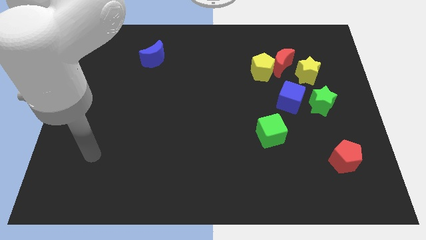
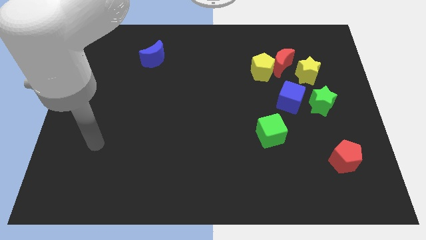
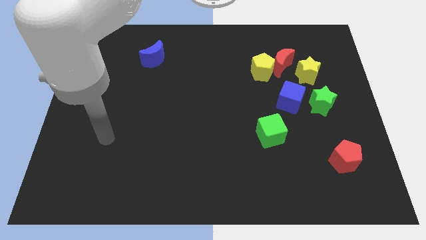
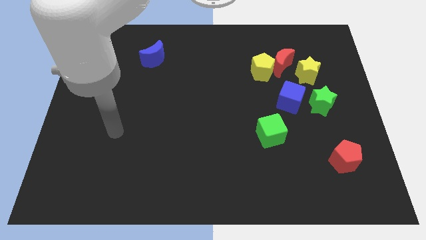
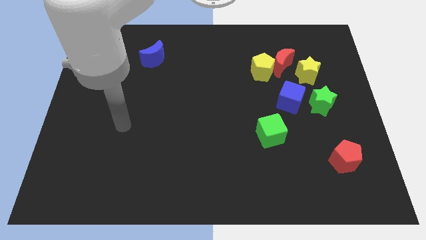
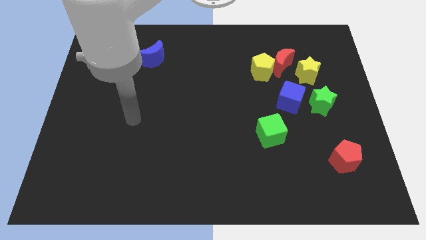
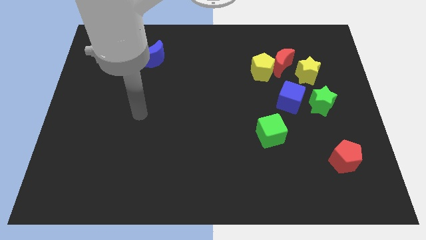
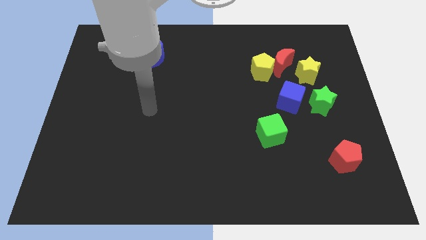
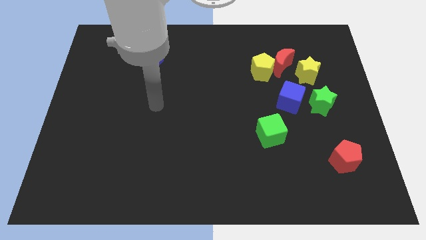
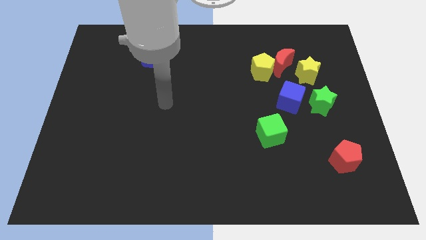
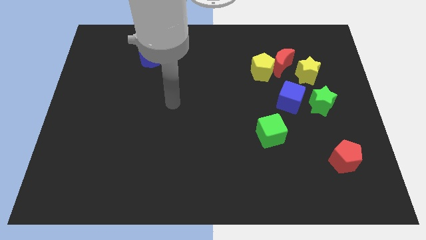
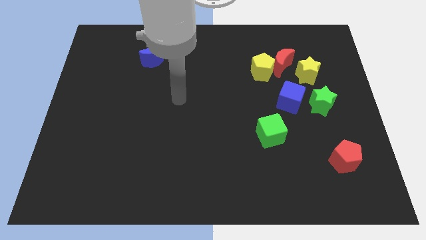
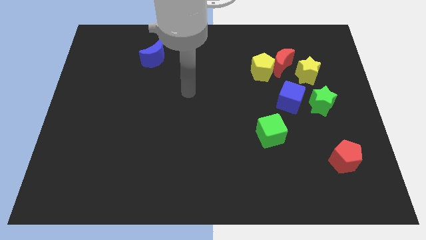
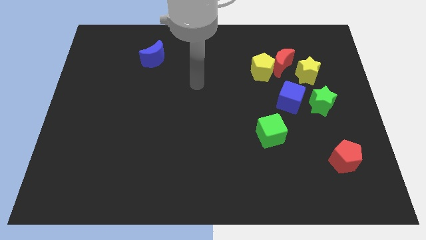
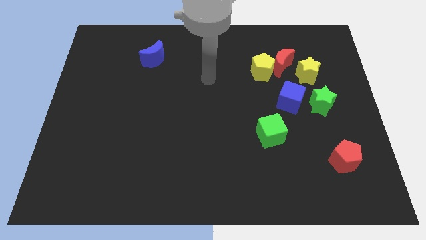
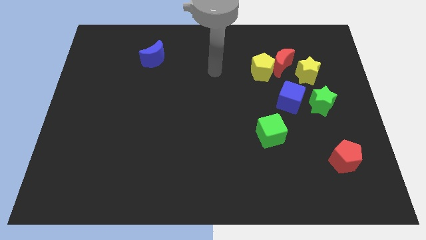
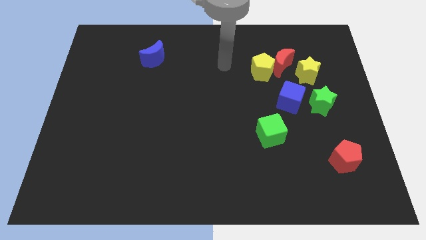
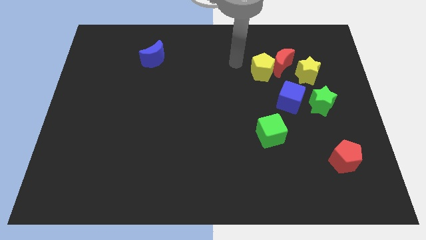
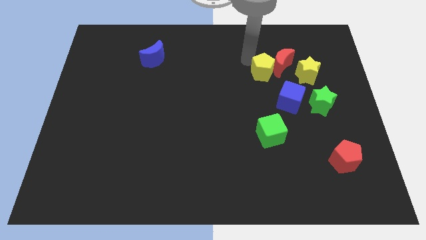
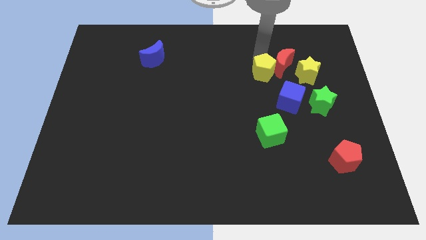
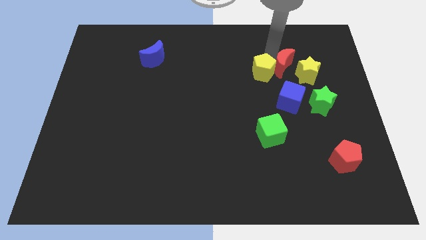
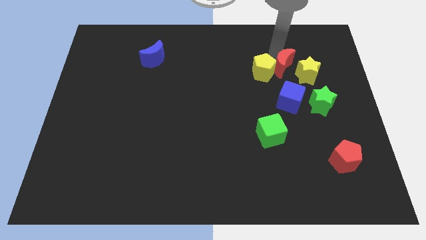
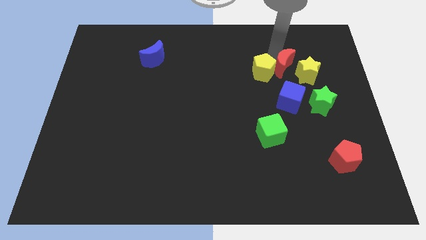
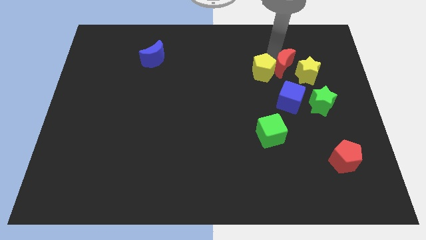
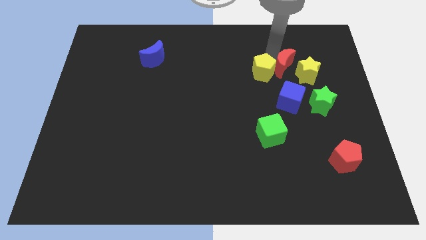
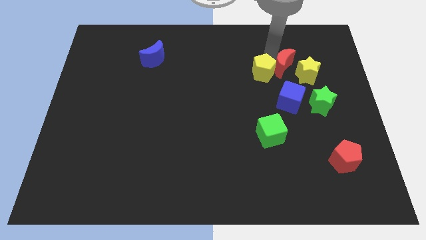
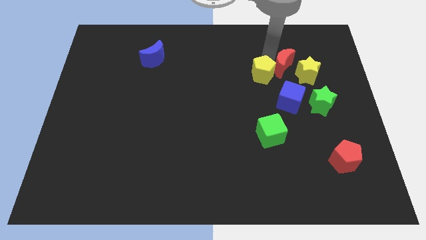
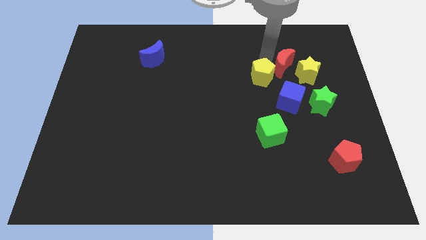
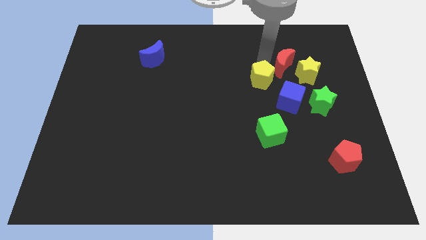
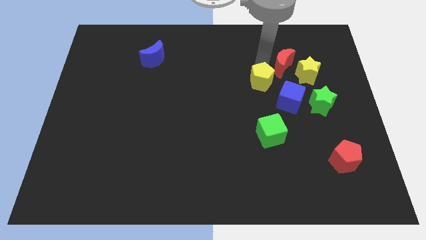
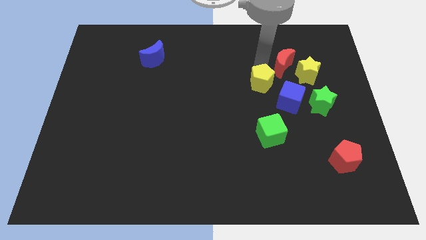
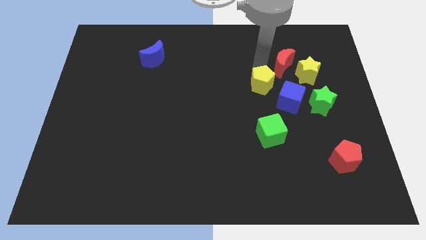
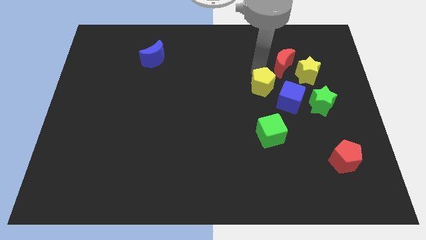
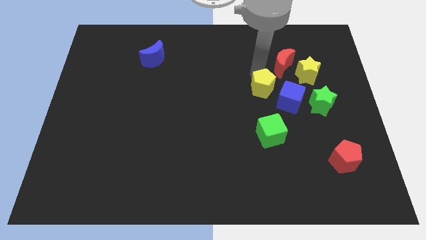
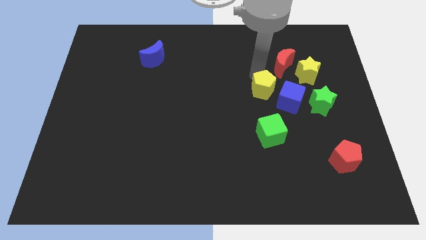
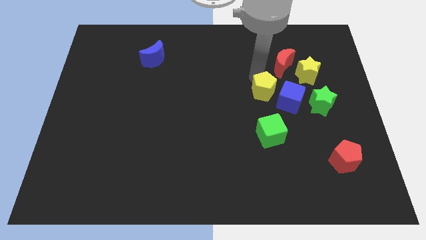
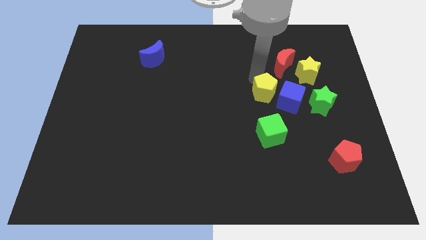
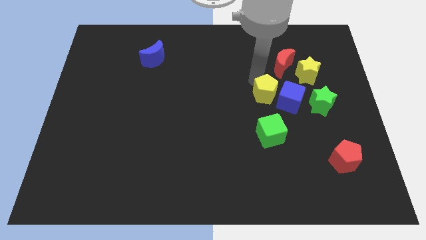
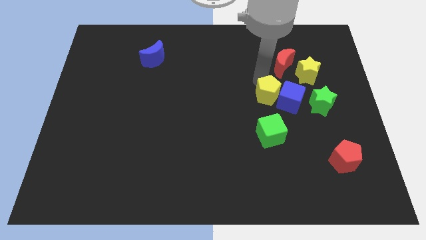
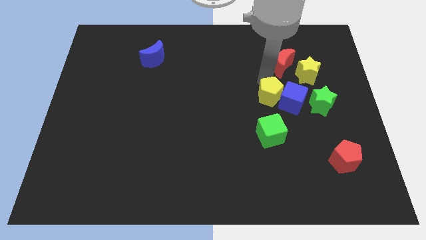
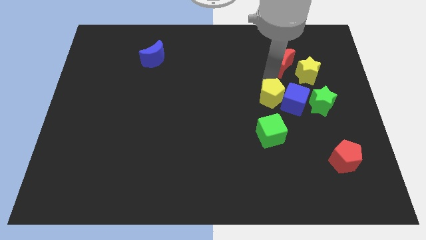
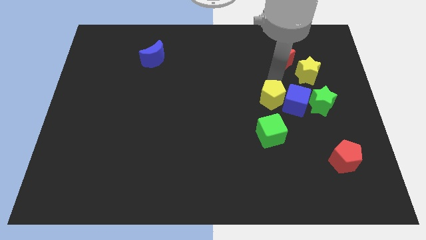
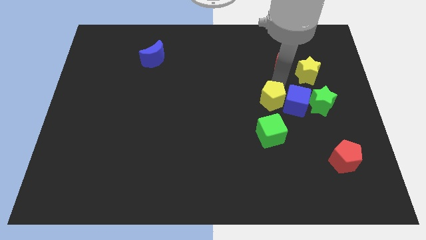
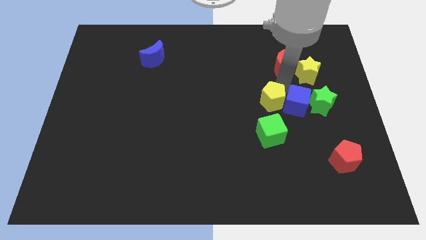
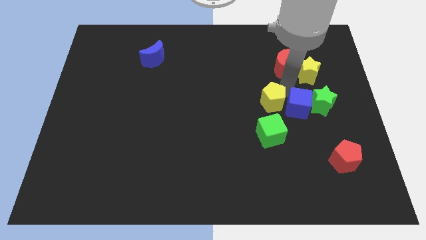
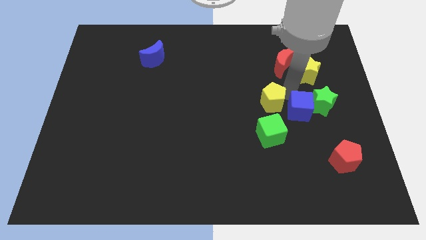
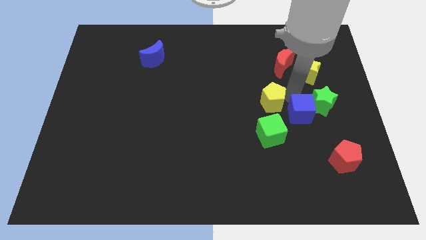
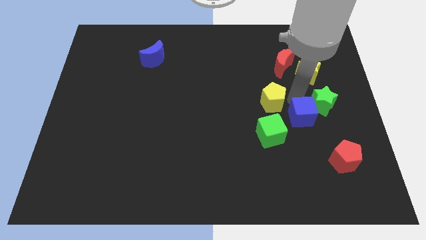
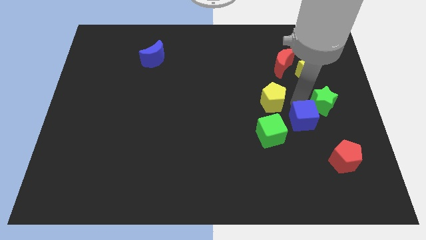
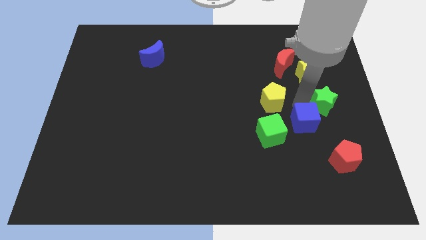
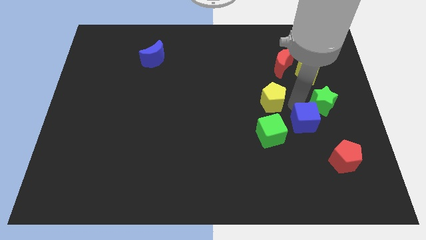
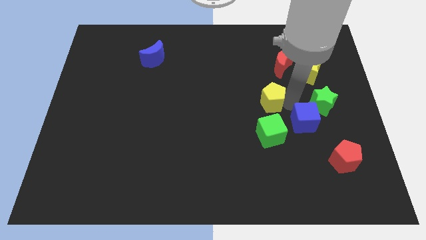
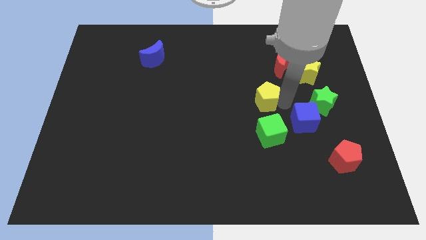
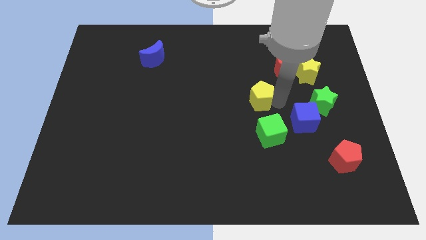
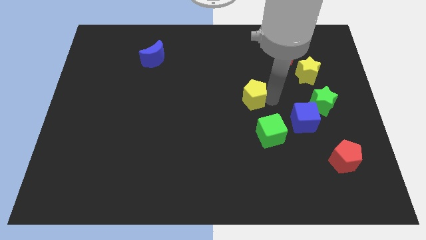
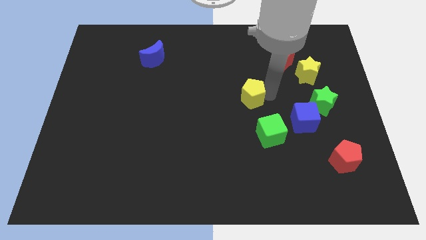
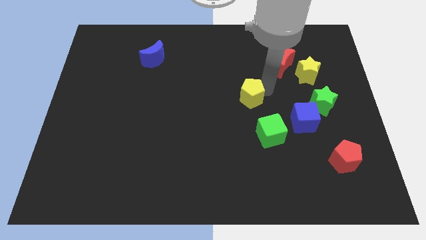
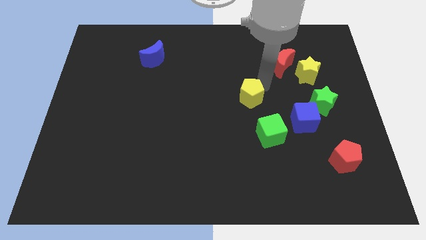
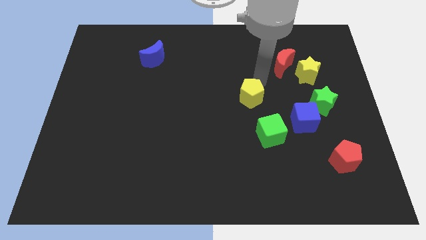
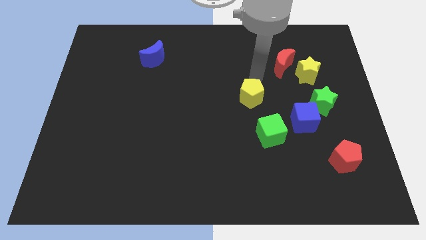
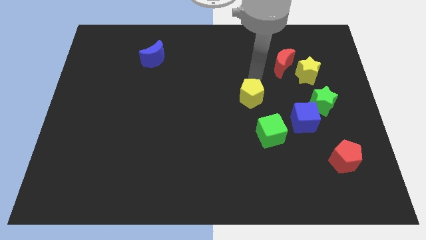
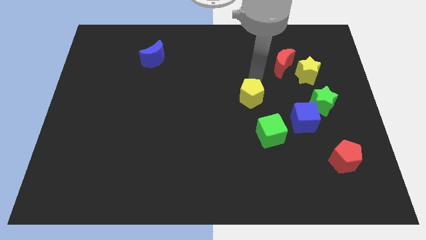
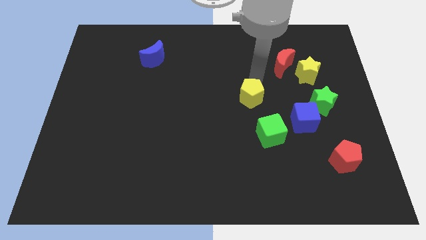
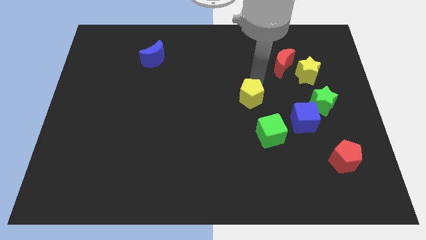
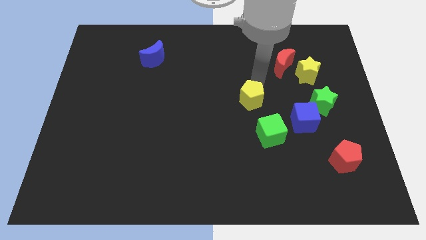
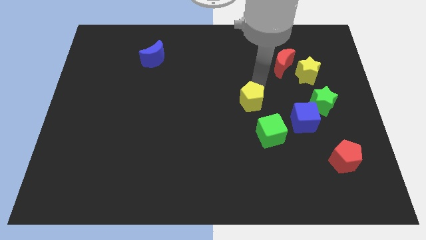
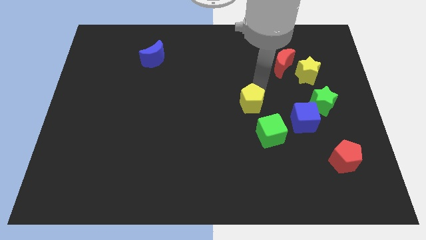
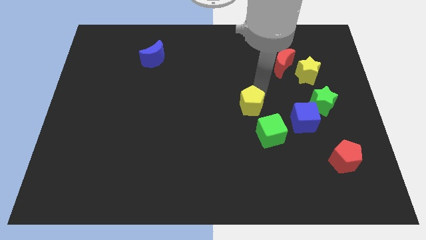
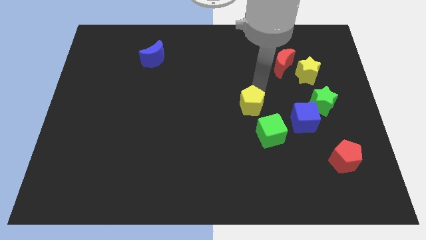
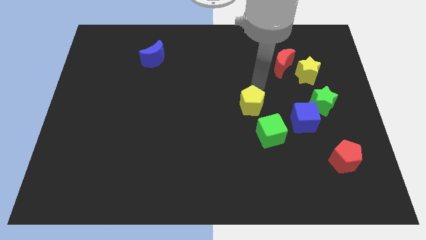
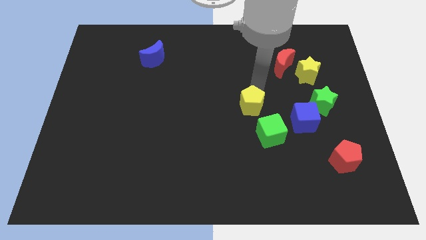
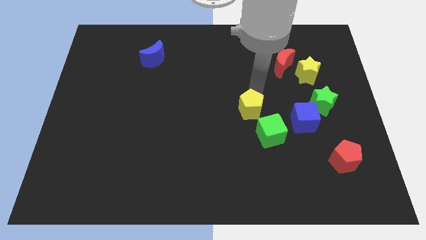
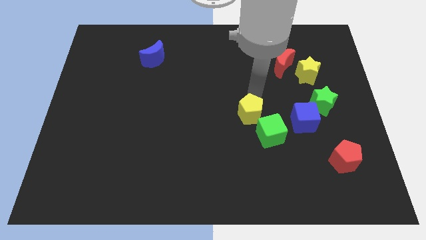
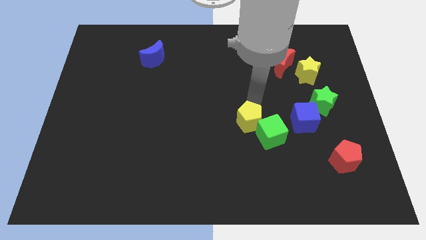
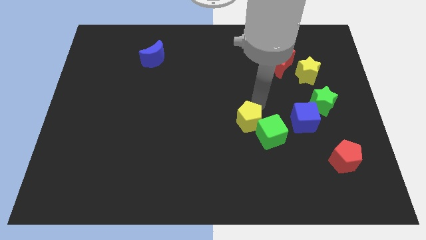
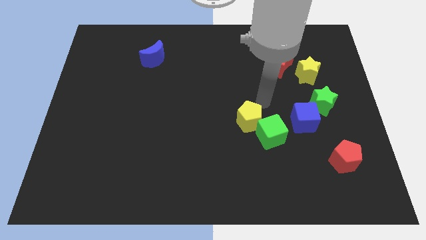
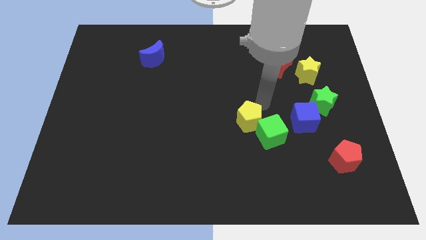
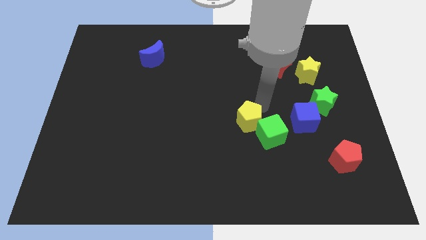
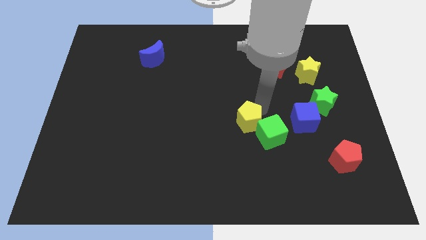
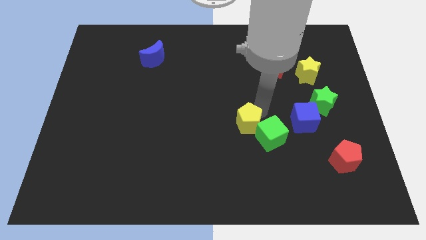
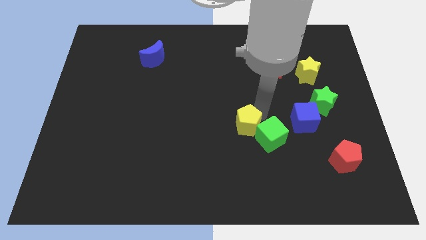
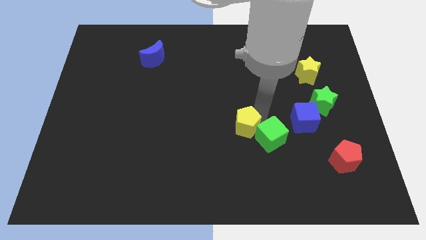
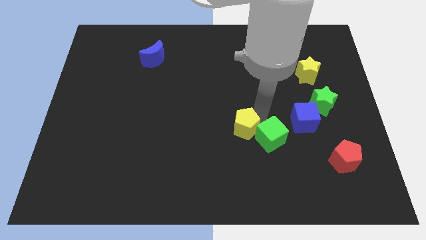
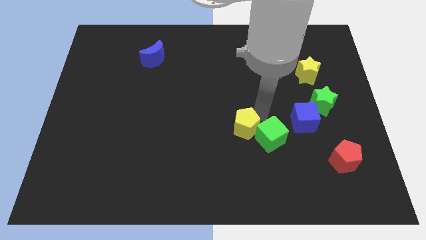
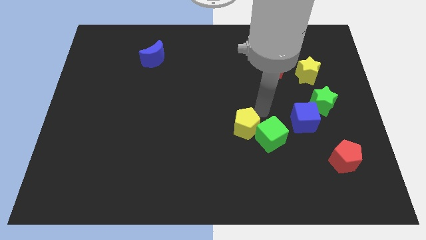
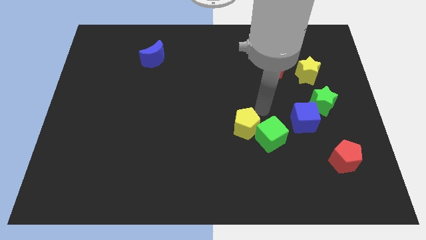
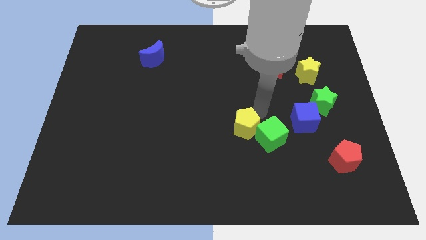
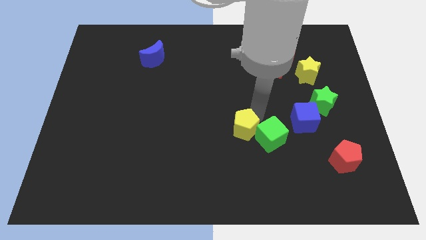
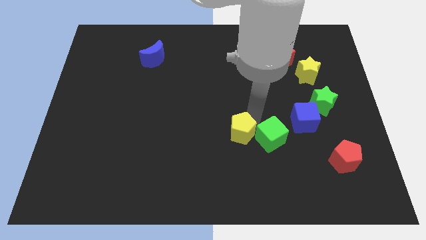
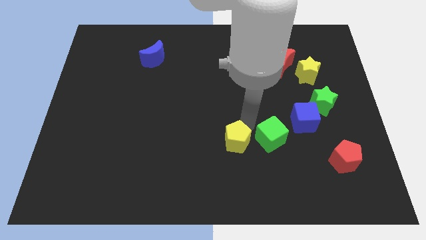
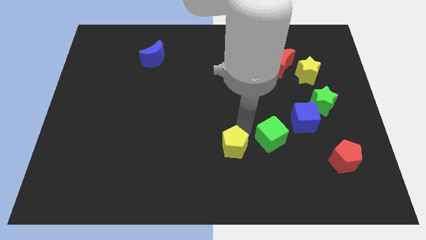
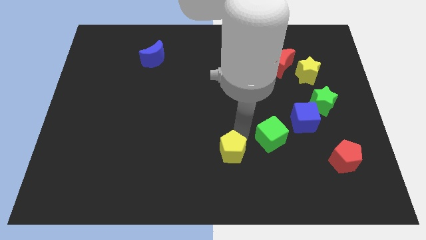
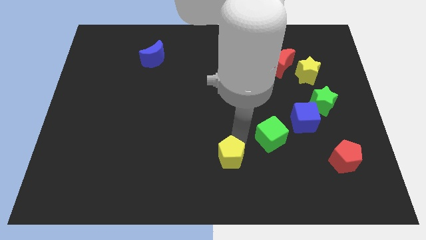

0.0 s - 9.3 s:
put the yellow pentagon to the bottom side
